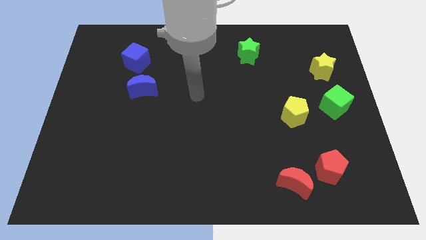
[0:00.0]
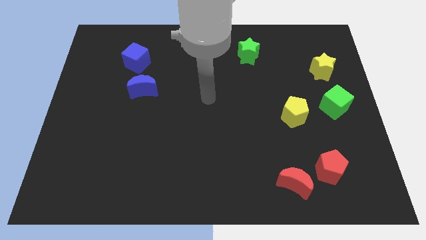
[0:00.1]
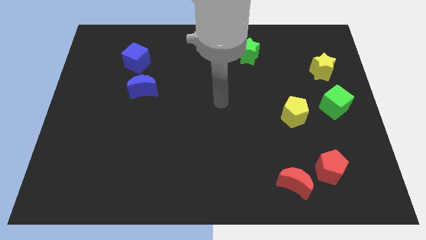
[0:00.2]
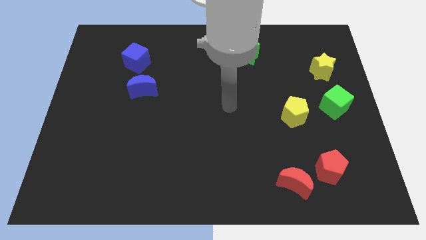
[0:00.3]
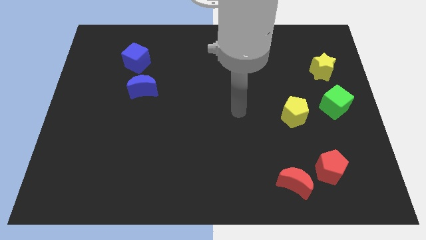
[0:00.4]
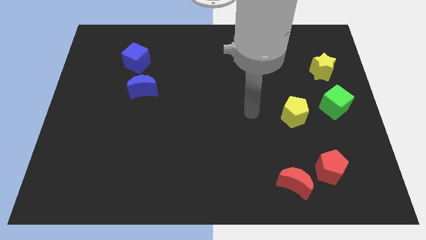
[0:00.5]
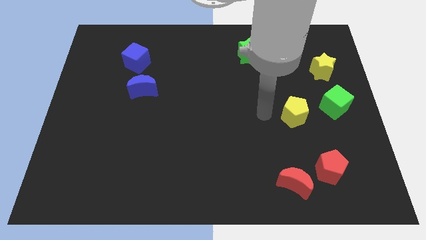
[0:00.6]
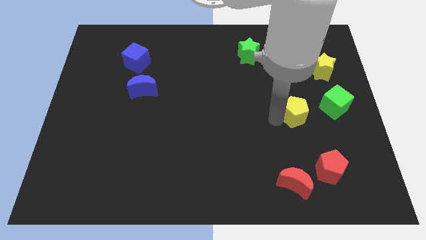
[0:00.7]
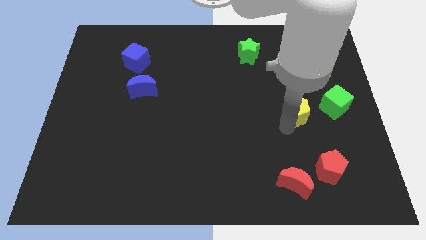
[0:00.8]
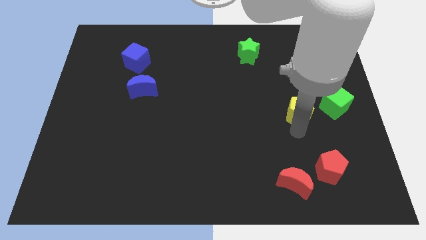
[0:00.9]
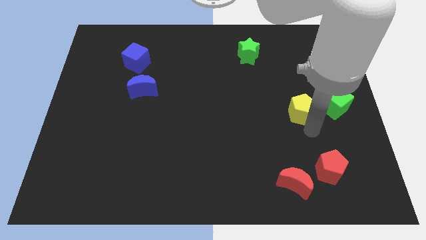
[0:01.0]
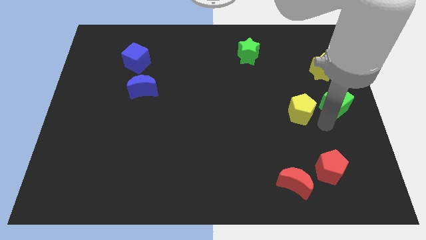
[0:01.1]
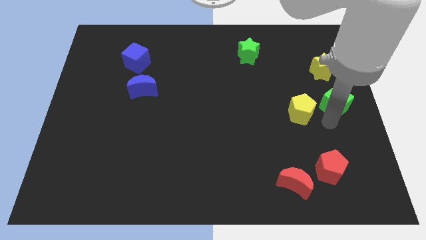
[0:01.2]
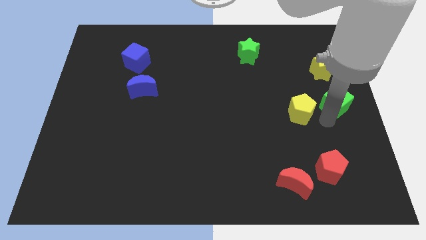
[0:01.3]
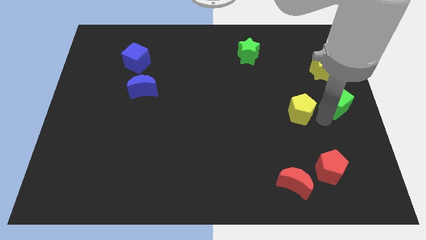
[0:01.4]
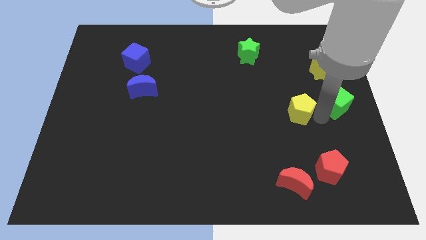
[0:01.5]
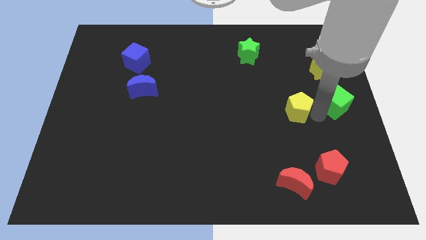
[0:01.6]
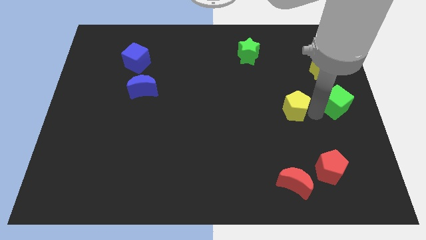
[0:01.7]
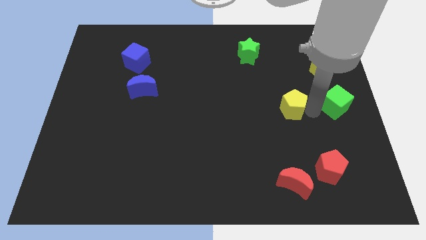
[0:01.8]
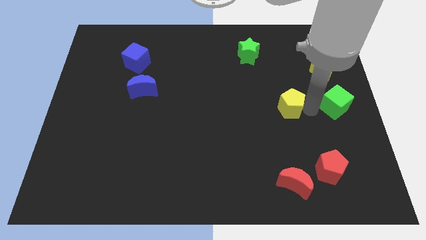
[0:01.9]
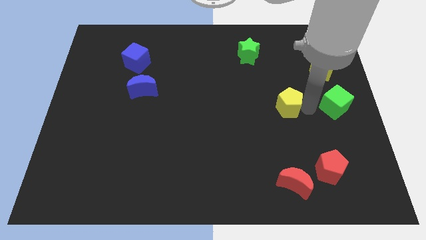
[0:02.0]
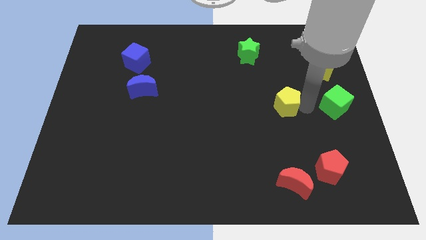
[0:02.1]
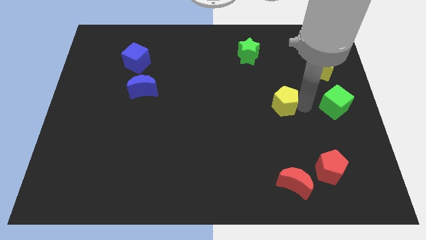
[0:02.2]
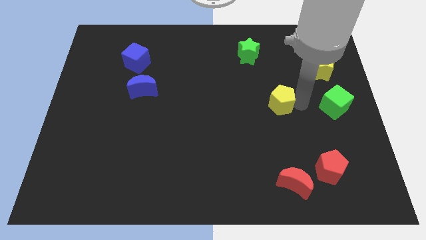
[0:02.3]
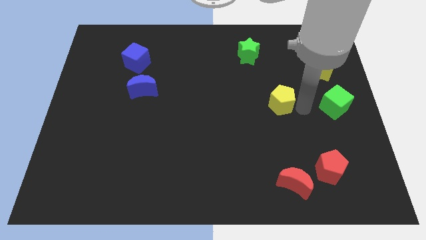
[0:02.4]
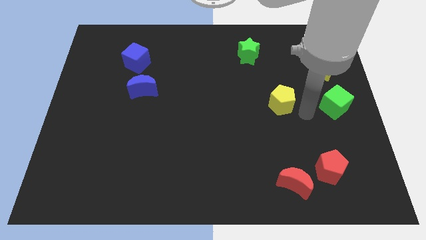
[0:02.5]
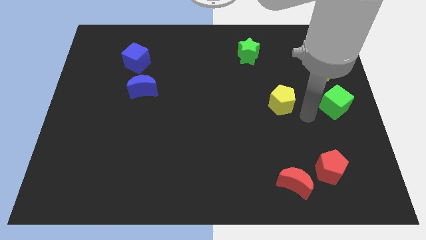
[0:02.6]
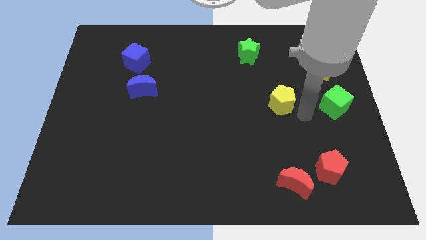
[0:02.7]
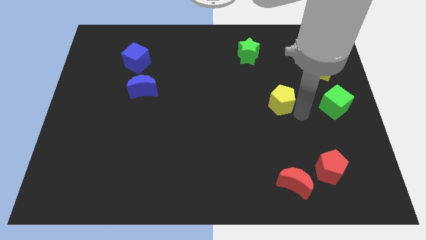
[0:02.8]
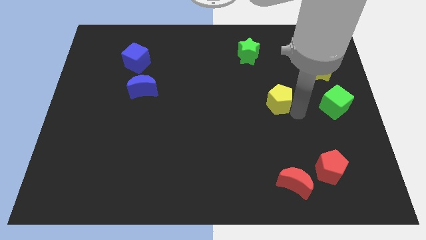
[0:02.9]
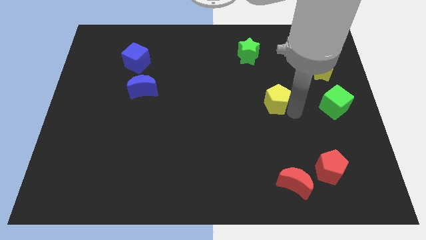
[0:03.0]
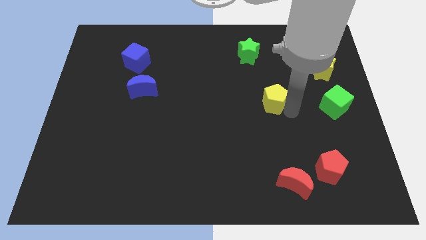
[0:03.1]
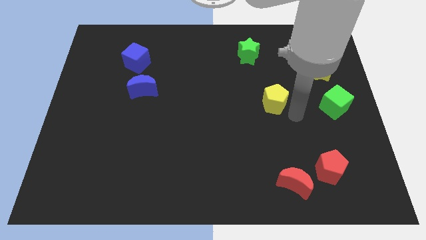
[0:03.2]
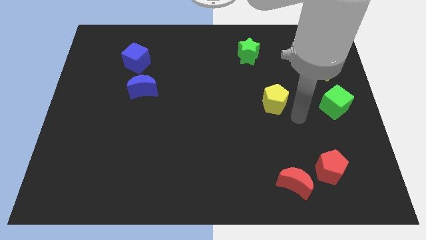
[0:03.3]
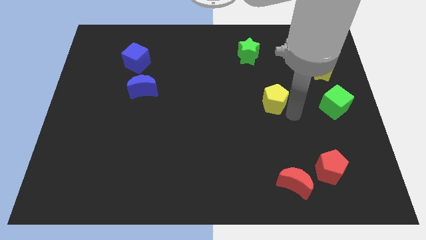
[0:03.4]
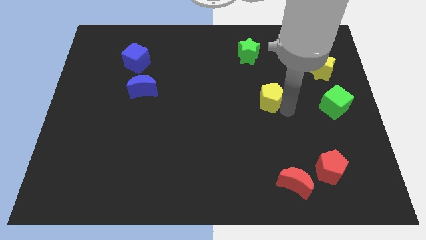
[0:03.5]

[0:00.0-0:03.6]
move the yellow pentagon diagonally upwards and left a bit

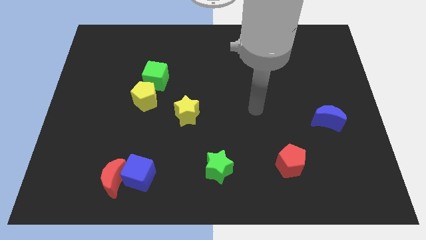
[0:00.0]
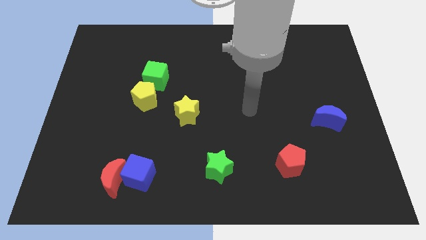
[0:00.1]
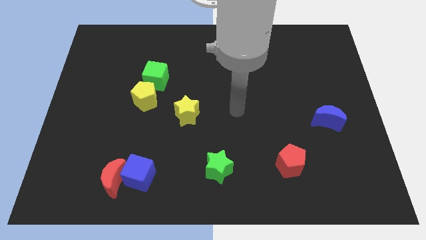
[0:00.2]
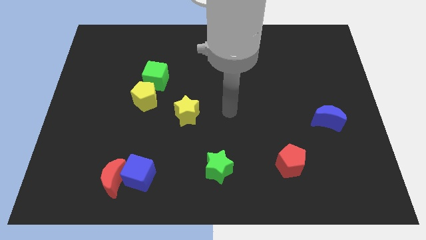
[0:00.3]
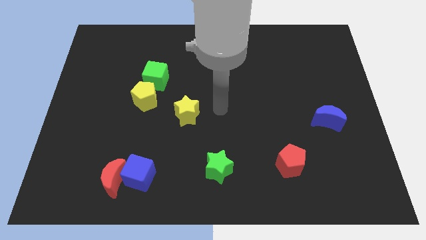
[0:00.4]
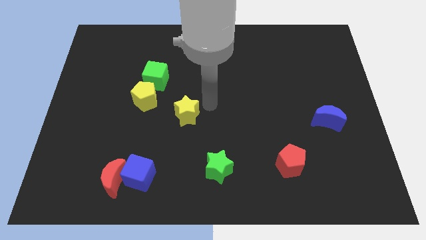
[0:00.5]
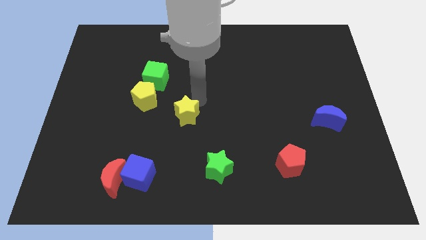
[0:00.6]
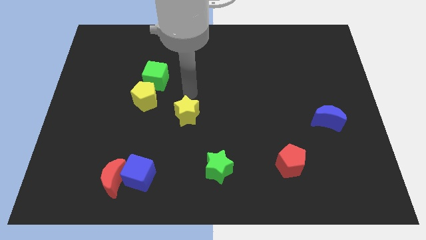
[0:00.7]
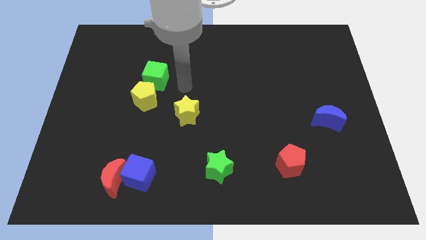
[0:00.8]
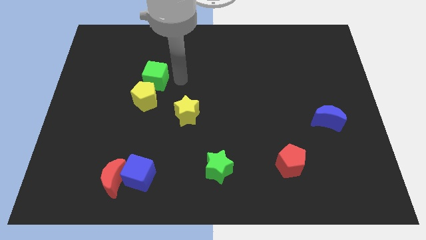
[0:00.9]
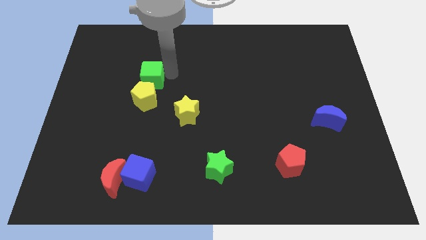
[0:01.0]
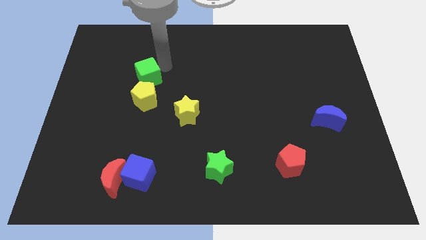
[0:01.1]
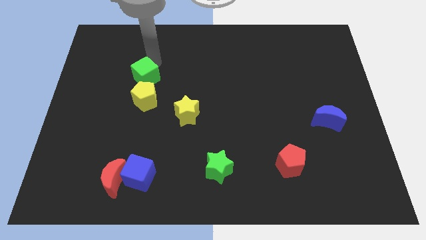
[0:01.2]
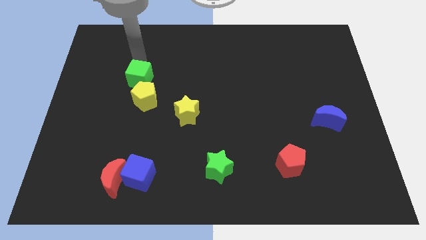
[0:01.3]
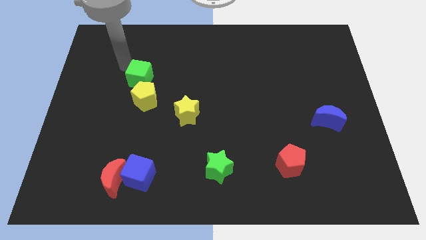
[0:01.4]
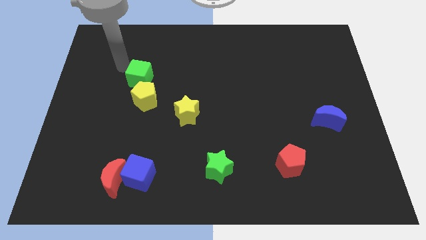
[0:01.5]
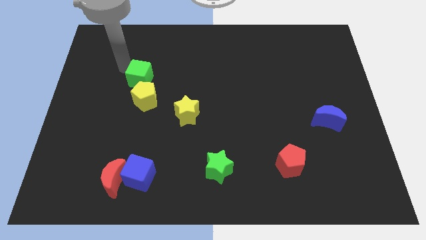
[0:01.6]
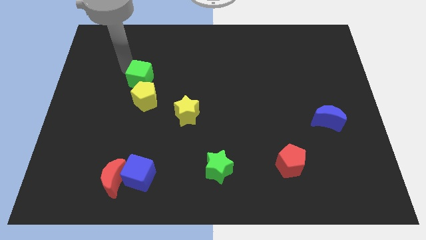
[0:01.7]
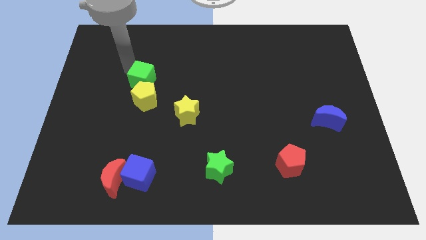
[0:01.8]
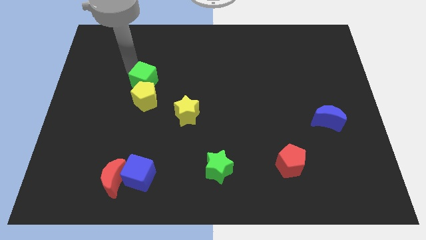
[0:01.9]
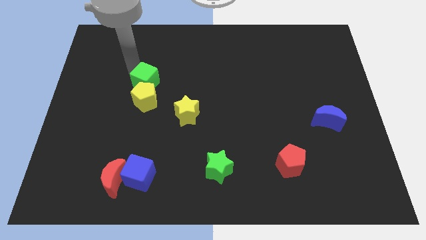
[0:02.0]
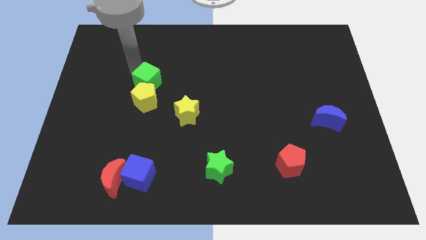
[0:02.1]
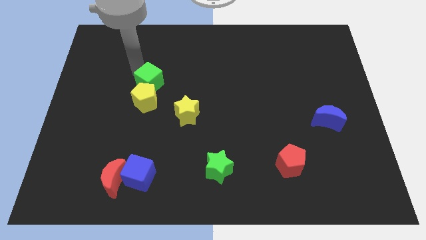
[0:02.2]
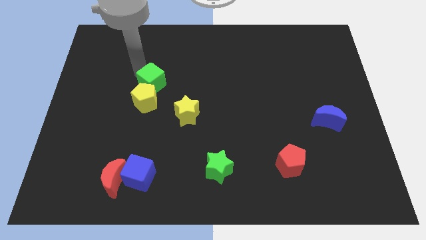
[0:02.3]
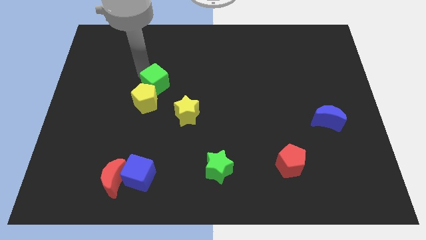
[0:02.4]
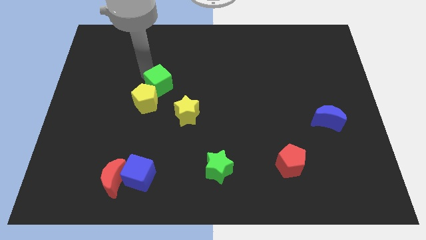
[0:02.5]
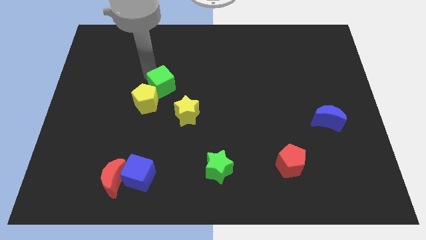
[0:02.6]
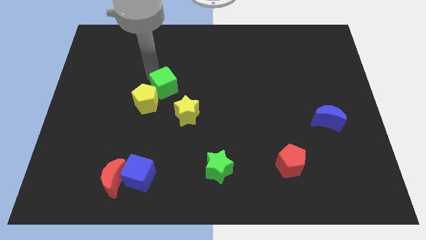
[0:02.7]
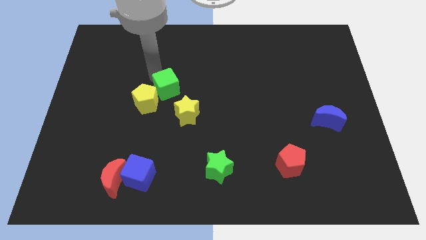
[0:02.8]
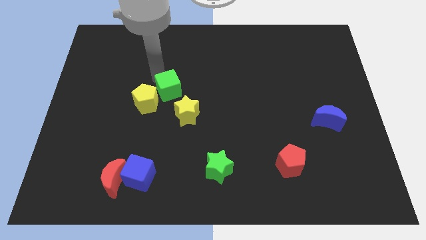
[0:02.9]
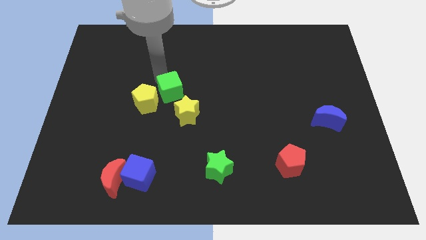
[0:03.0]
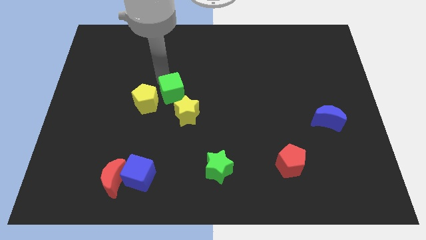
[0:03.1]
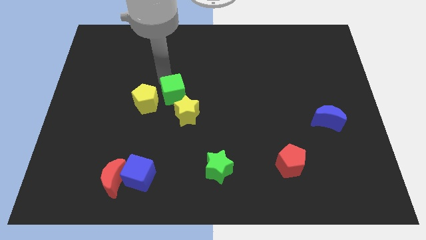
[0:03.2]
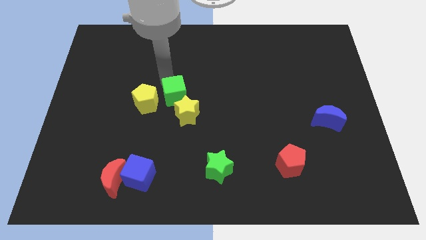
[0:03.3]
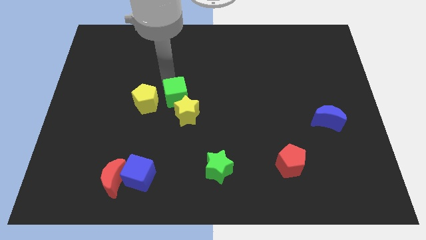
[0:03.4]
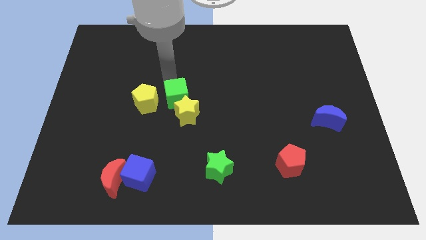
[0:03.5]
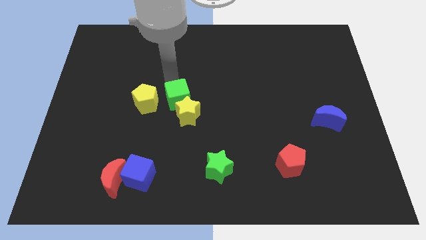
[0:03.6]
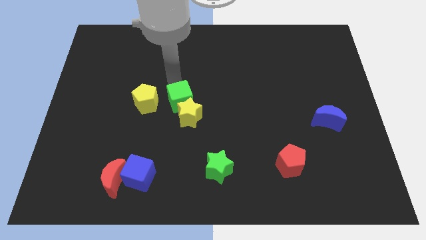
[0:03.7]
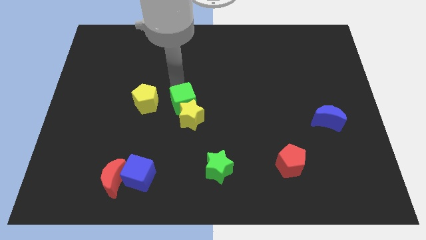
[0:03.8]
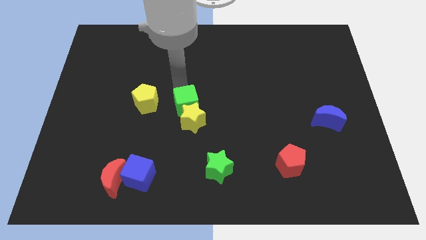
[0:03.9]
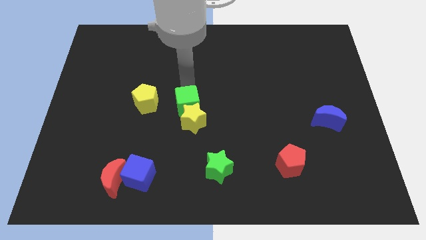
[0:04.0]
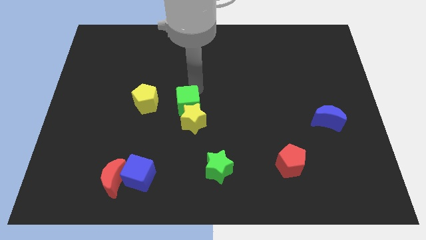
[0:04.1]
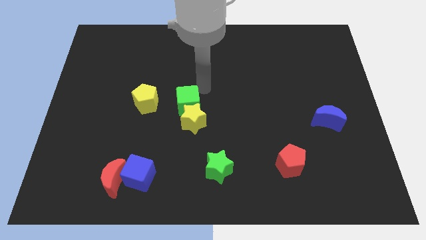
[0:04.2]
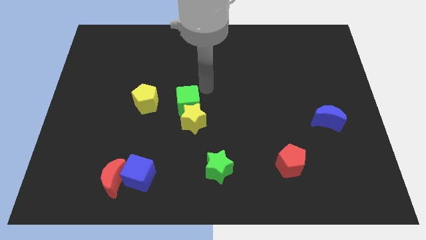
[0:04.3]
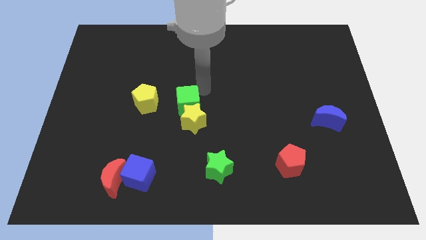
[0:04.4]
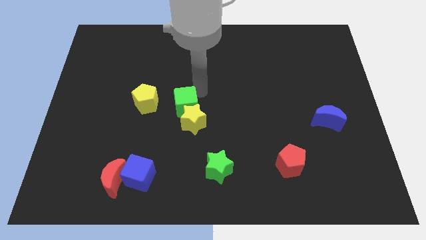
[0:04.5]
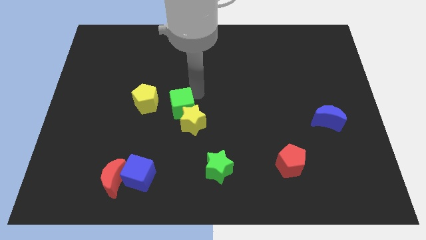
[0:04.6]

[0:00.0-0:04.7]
push the green cube a bit downwards
